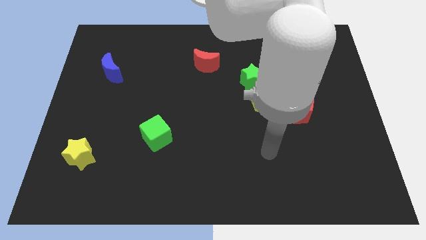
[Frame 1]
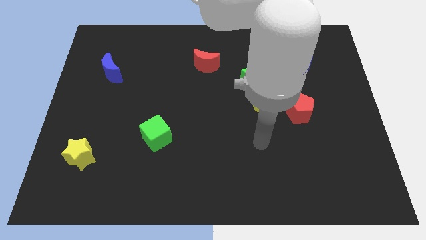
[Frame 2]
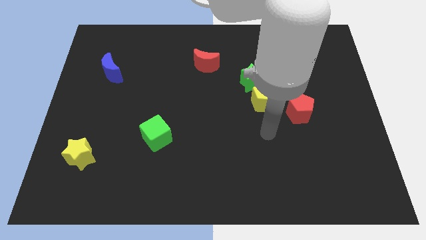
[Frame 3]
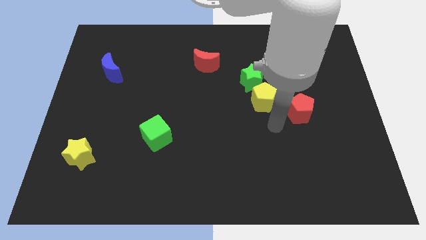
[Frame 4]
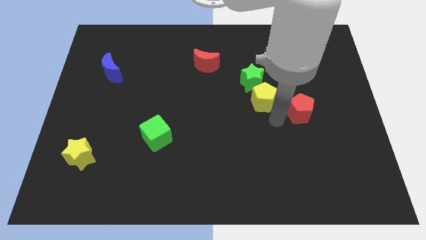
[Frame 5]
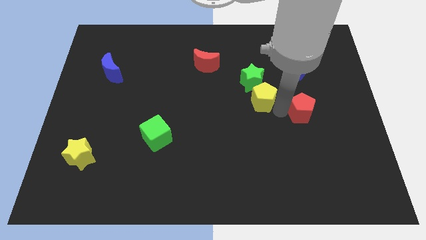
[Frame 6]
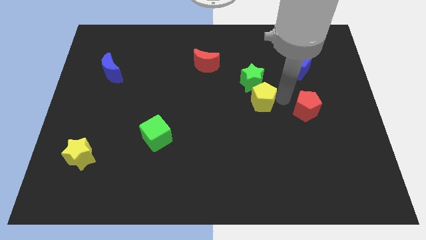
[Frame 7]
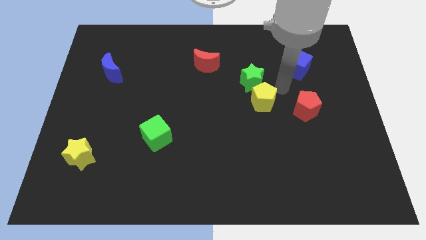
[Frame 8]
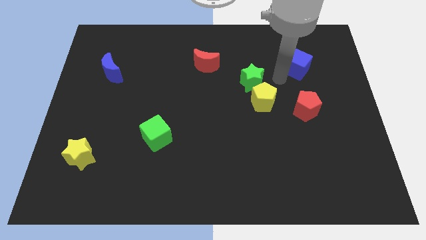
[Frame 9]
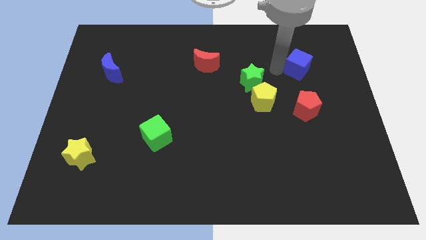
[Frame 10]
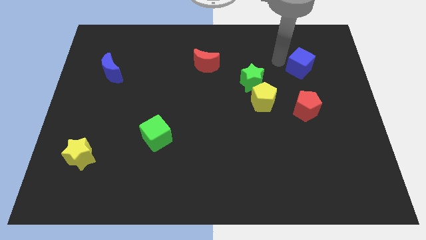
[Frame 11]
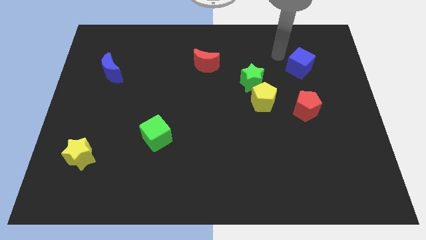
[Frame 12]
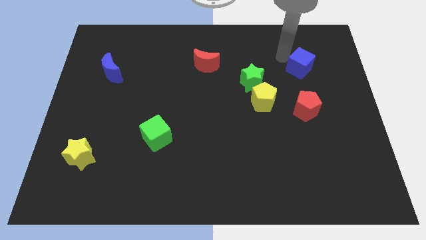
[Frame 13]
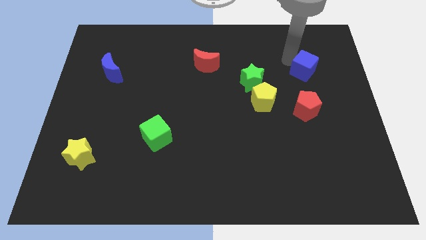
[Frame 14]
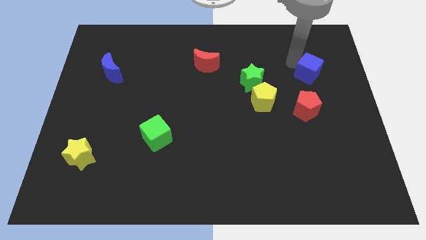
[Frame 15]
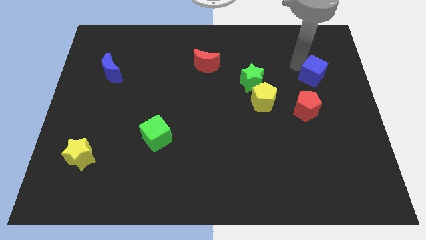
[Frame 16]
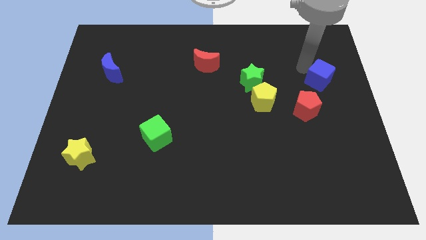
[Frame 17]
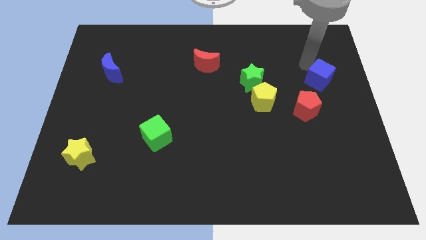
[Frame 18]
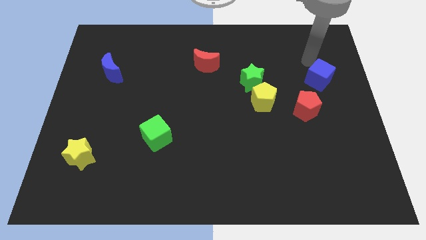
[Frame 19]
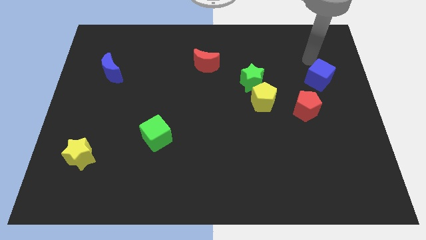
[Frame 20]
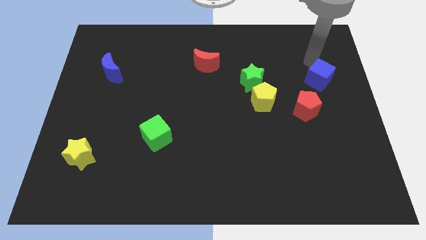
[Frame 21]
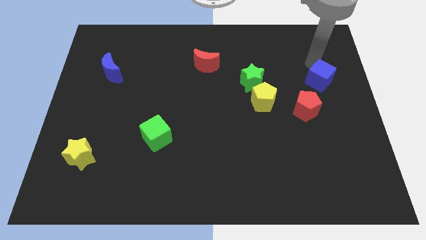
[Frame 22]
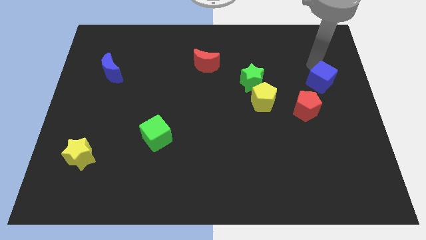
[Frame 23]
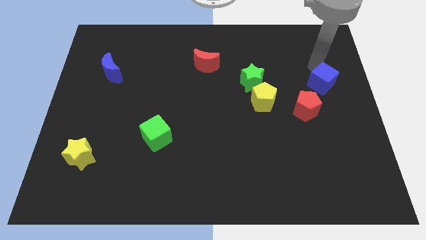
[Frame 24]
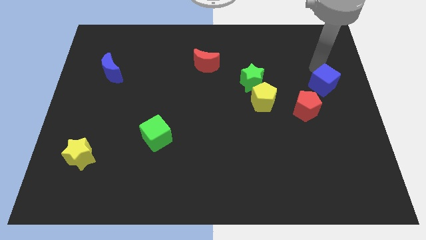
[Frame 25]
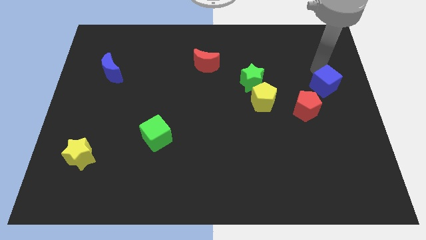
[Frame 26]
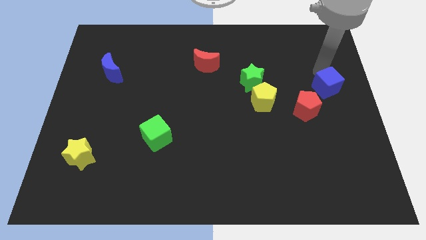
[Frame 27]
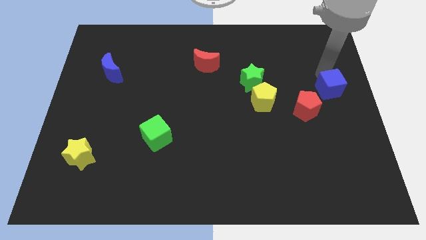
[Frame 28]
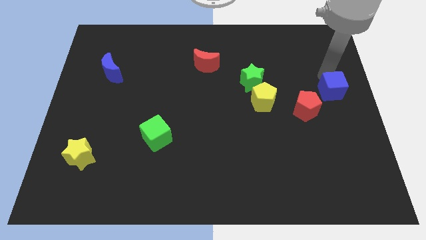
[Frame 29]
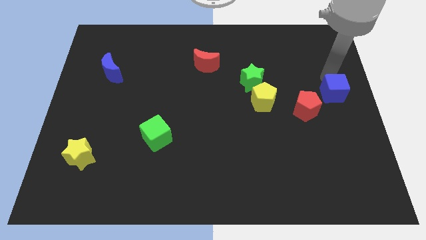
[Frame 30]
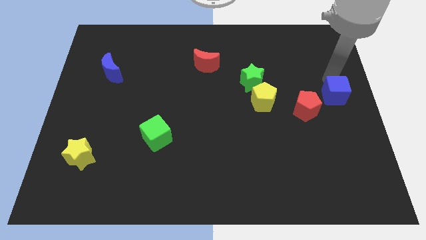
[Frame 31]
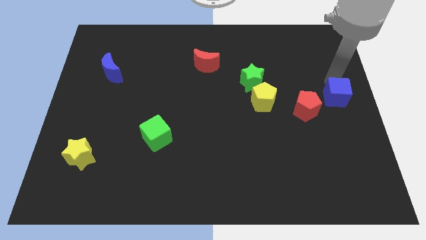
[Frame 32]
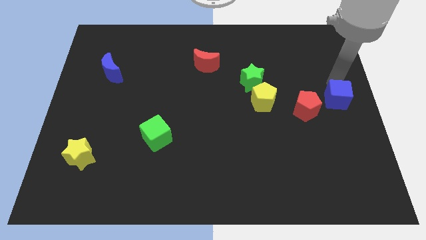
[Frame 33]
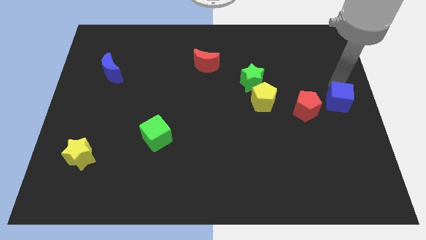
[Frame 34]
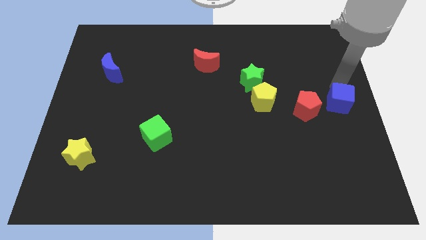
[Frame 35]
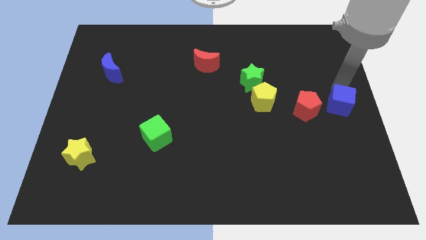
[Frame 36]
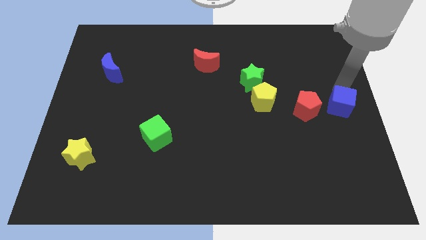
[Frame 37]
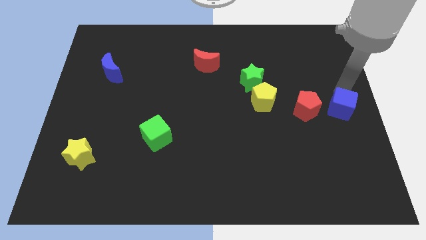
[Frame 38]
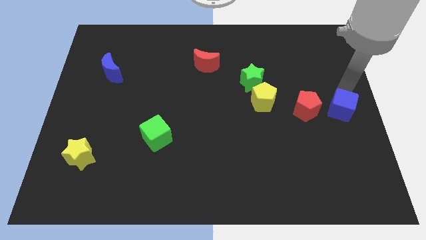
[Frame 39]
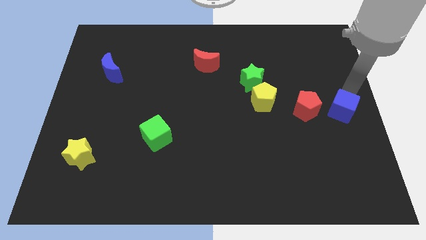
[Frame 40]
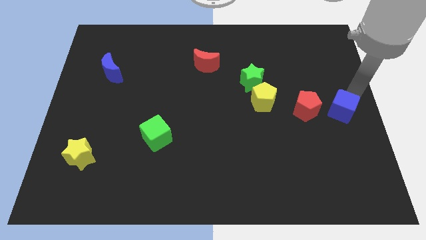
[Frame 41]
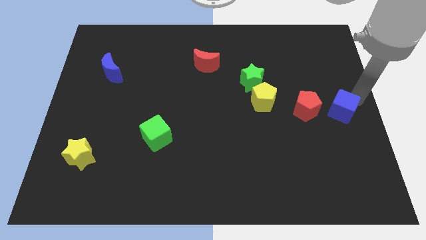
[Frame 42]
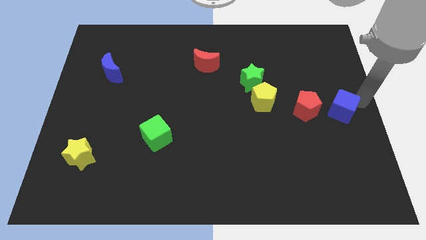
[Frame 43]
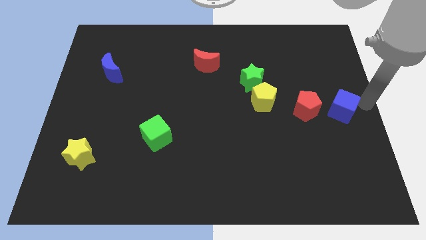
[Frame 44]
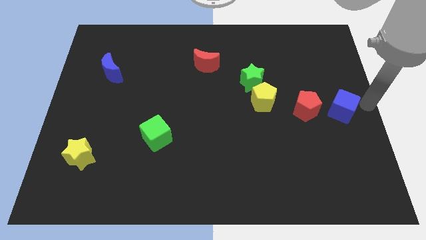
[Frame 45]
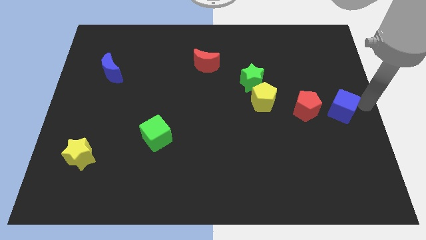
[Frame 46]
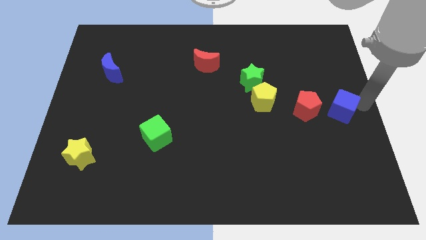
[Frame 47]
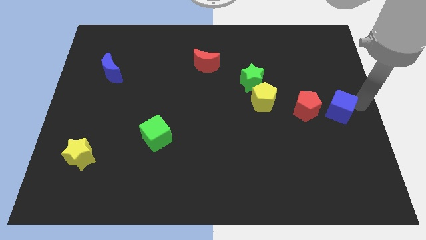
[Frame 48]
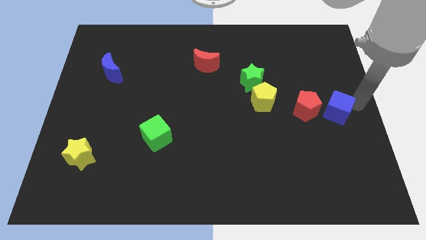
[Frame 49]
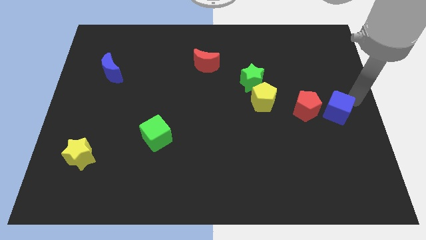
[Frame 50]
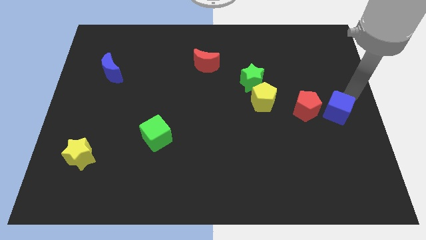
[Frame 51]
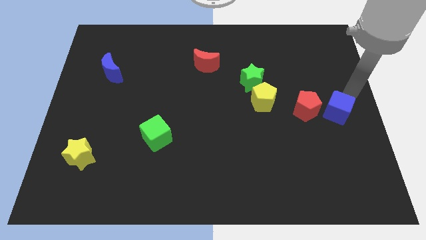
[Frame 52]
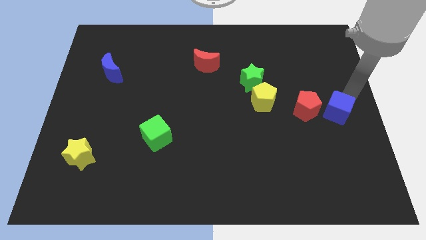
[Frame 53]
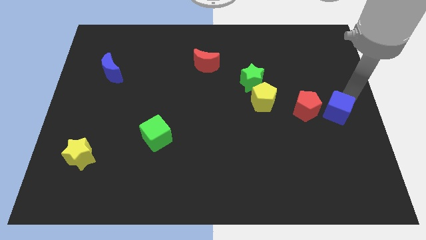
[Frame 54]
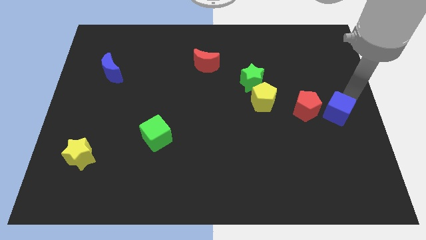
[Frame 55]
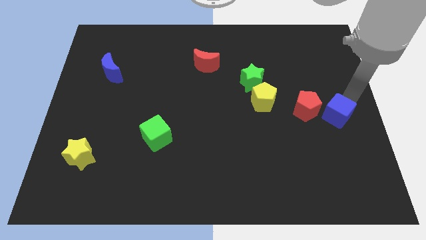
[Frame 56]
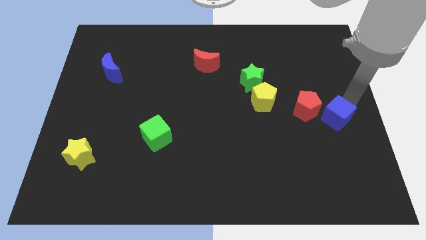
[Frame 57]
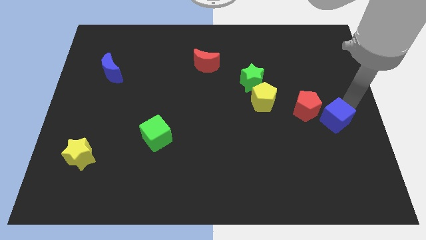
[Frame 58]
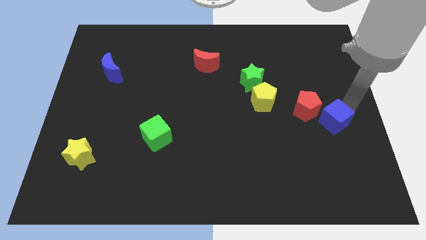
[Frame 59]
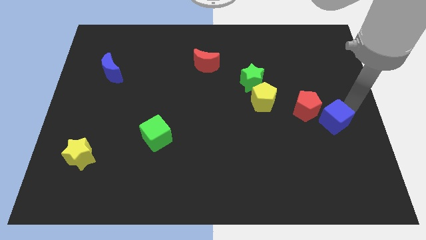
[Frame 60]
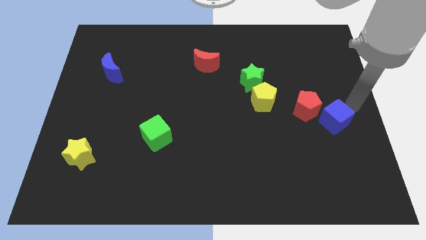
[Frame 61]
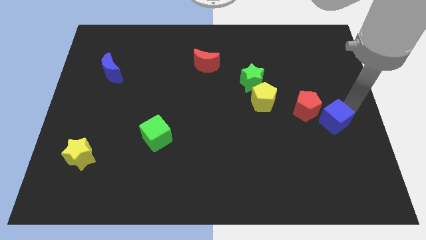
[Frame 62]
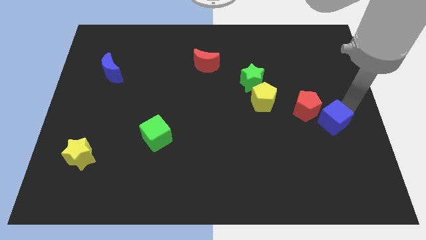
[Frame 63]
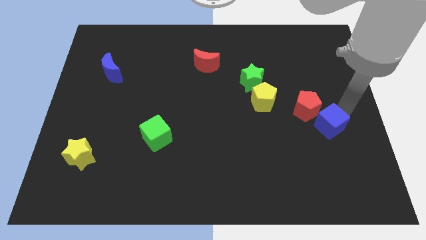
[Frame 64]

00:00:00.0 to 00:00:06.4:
push the blue cube to the bottom side of the red pentagon
